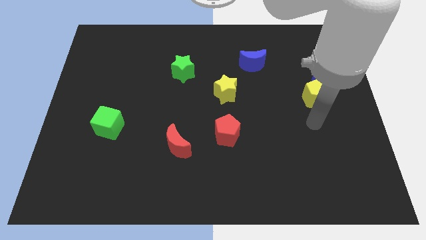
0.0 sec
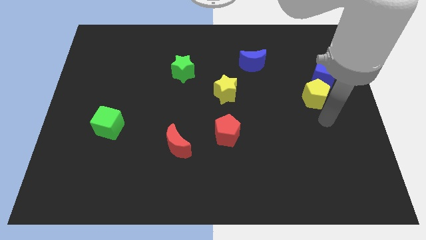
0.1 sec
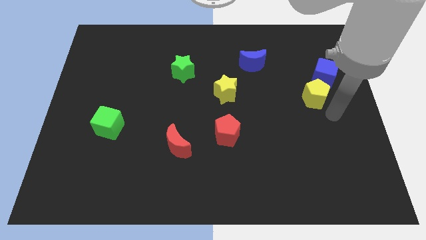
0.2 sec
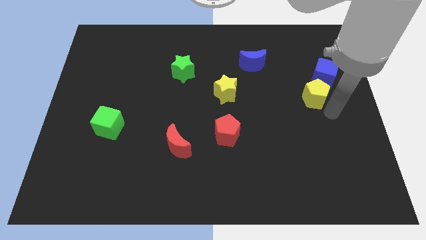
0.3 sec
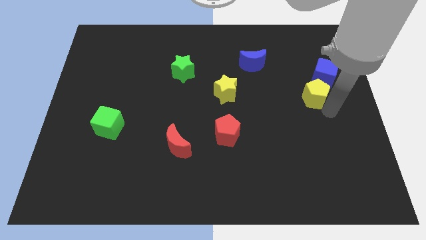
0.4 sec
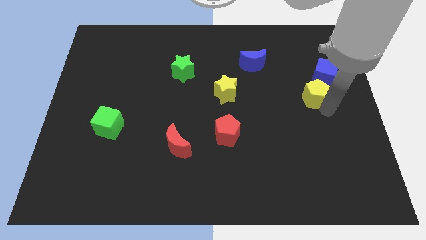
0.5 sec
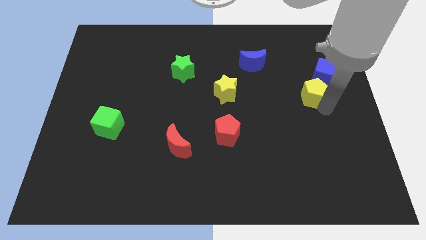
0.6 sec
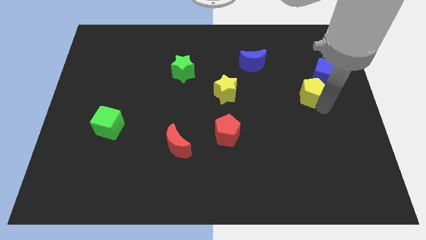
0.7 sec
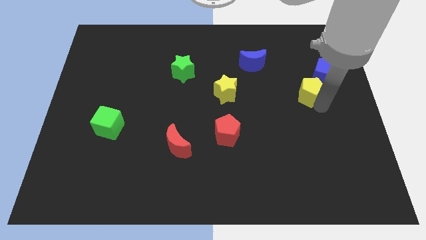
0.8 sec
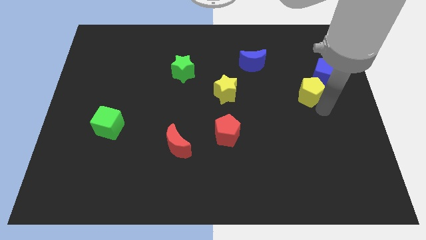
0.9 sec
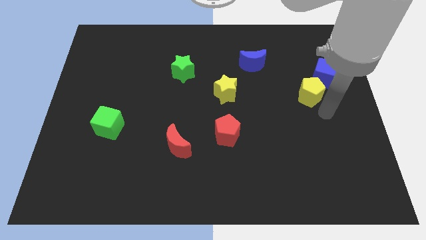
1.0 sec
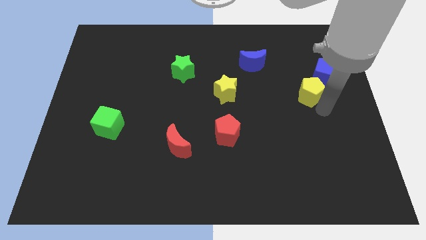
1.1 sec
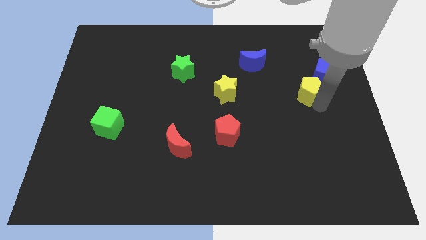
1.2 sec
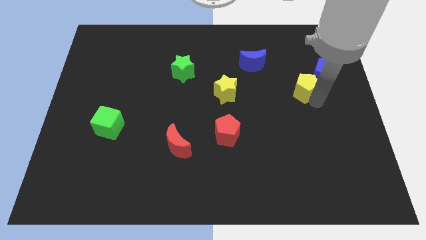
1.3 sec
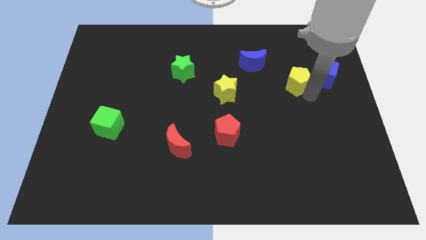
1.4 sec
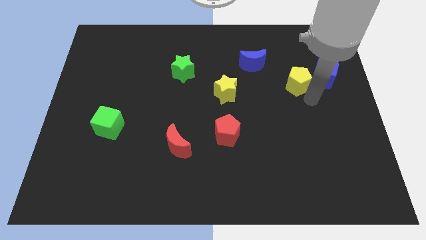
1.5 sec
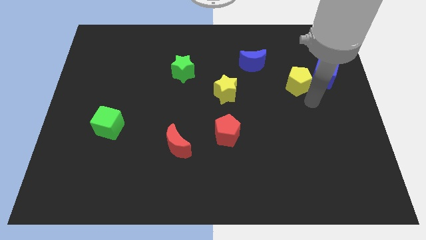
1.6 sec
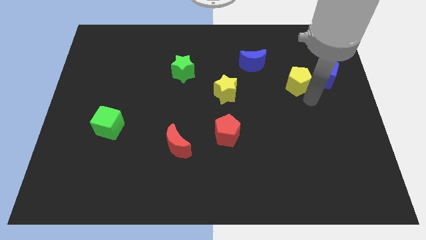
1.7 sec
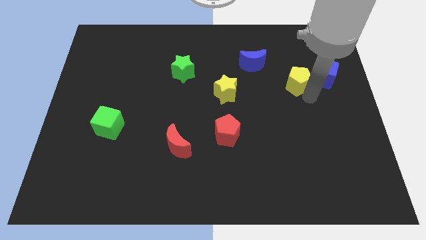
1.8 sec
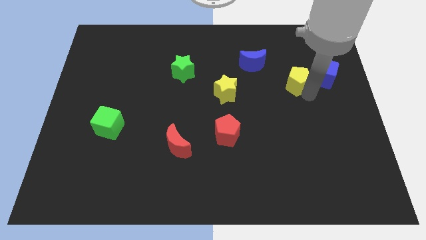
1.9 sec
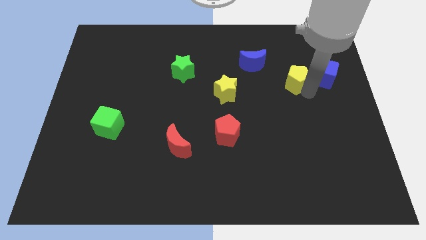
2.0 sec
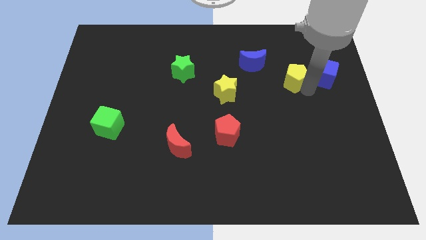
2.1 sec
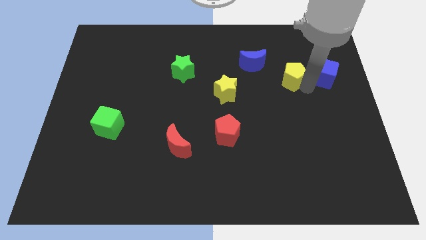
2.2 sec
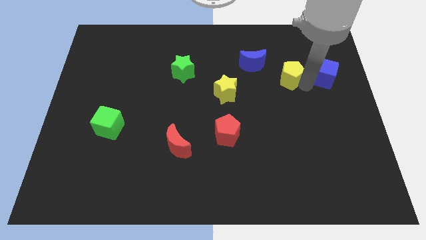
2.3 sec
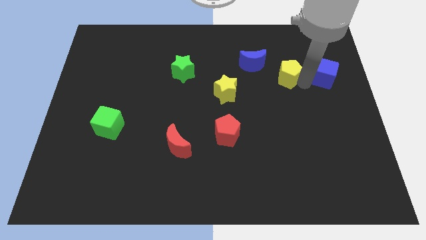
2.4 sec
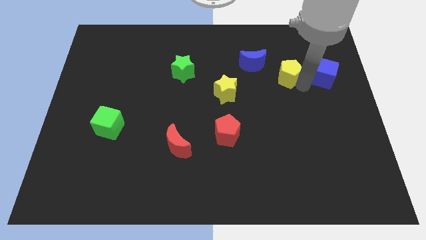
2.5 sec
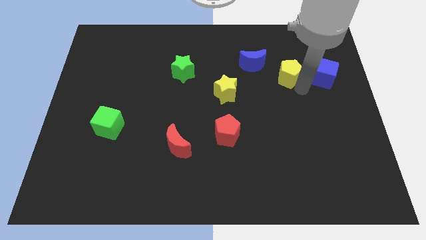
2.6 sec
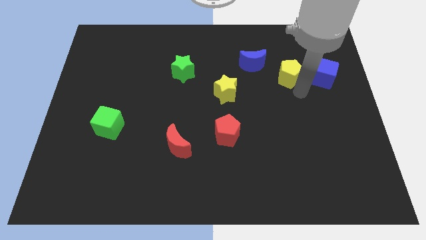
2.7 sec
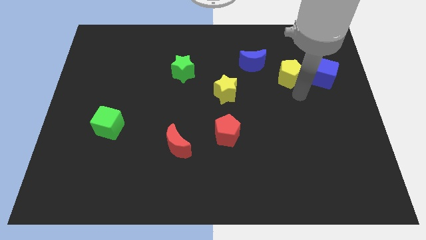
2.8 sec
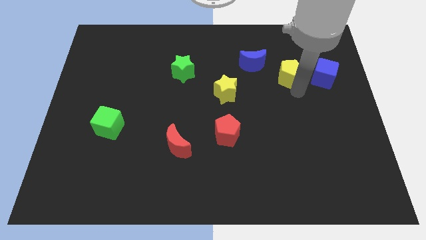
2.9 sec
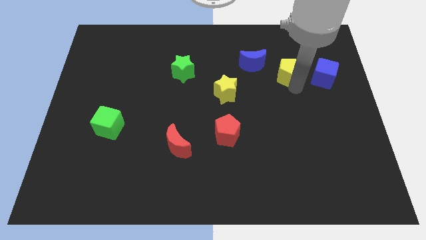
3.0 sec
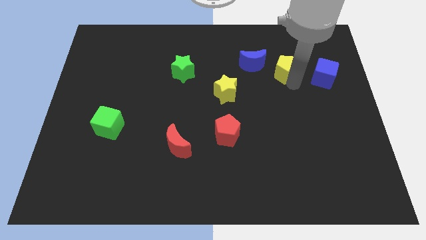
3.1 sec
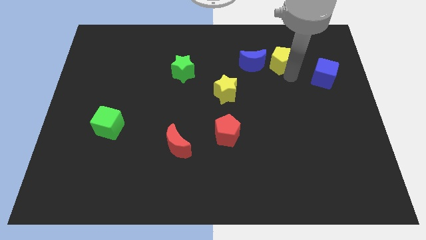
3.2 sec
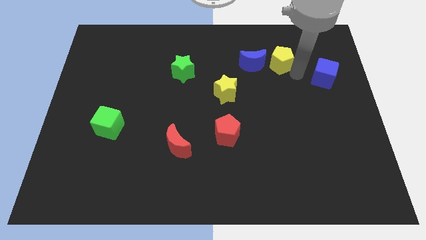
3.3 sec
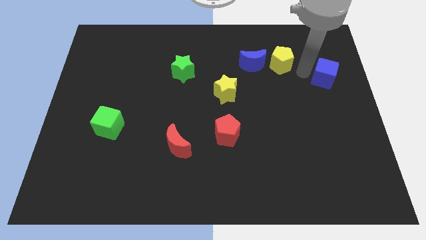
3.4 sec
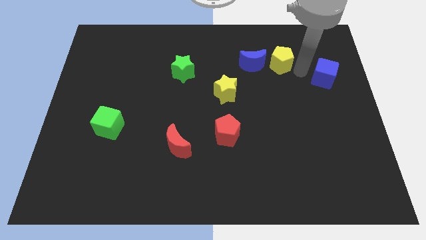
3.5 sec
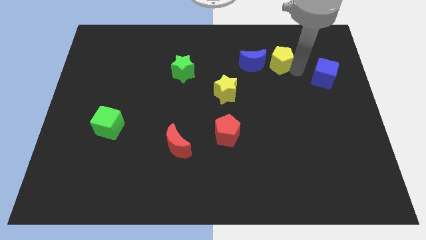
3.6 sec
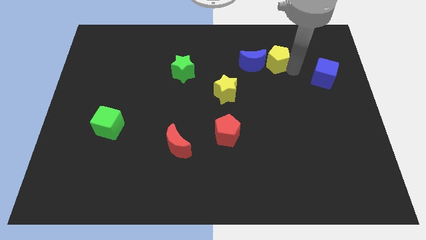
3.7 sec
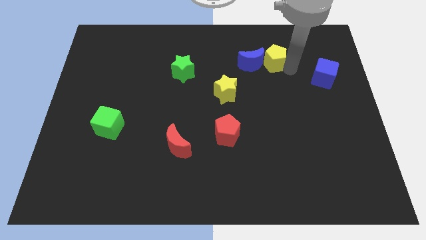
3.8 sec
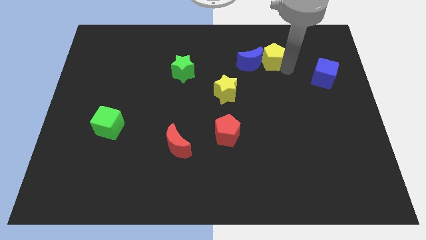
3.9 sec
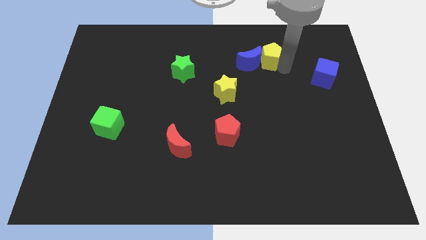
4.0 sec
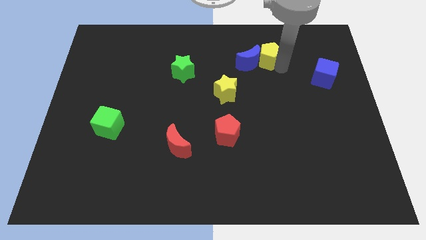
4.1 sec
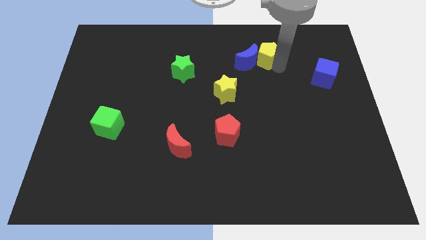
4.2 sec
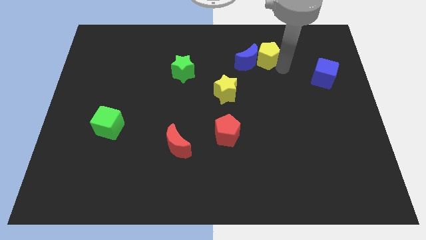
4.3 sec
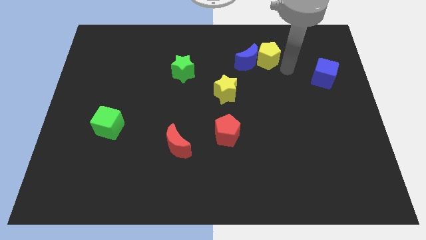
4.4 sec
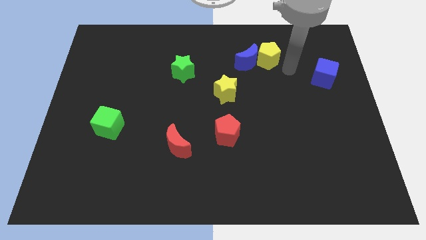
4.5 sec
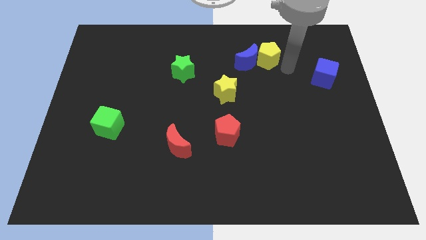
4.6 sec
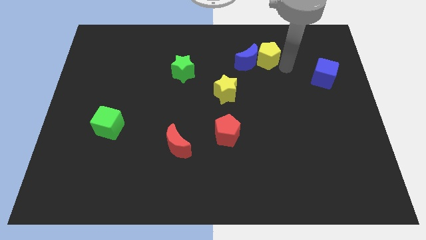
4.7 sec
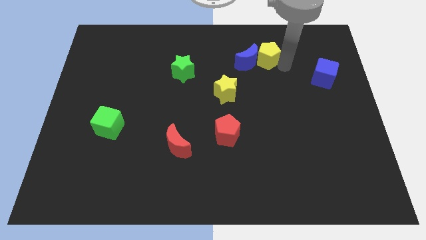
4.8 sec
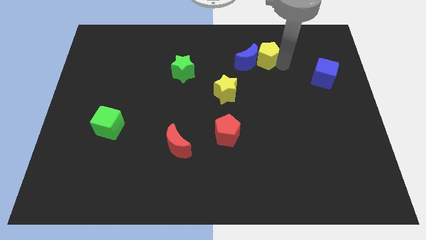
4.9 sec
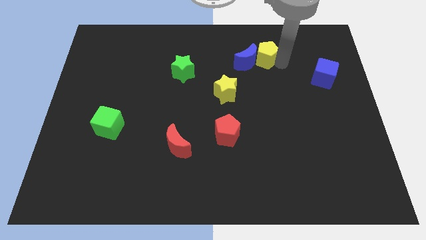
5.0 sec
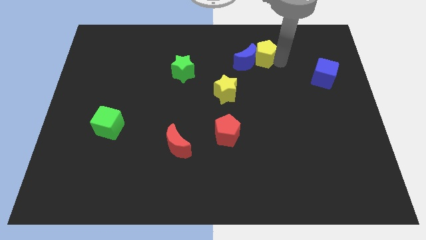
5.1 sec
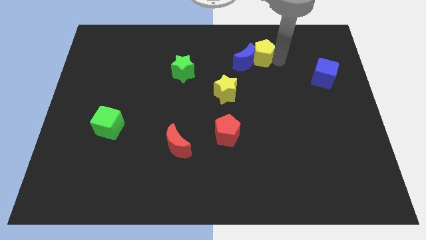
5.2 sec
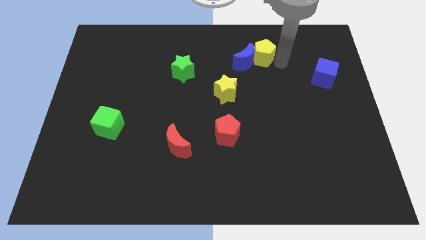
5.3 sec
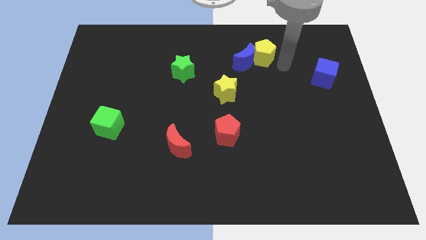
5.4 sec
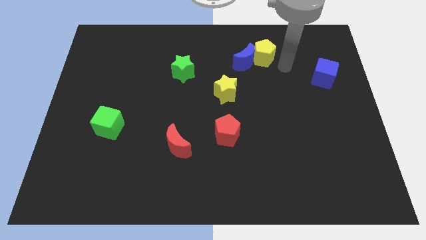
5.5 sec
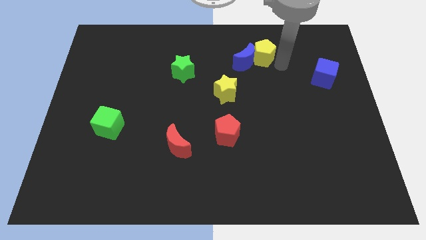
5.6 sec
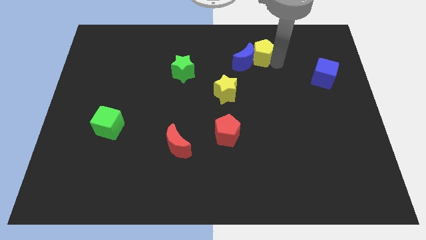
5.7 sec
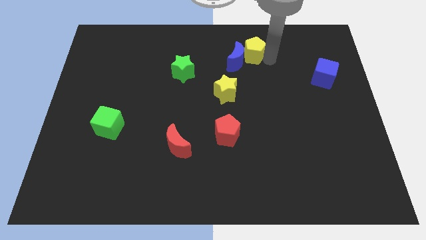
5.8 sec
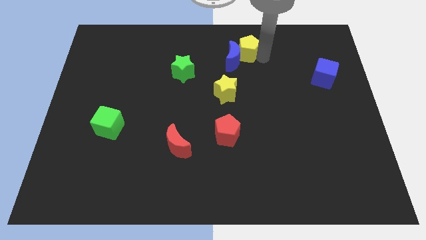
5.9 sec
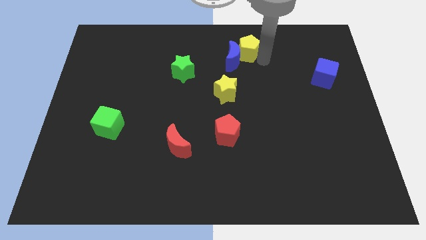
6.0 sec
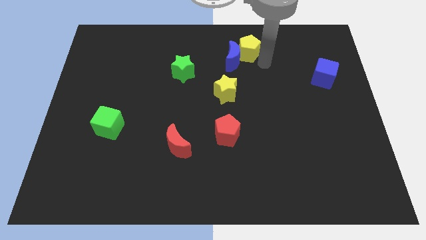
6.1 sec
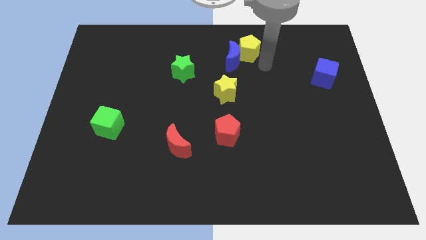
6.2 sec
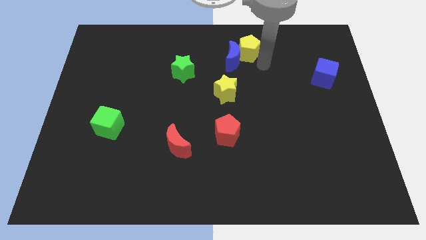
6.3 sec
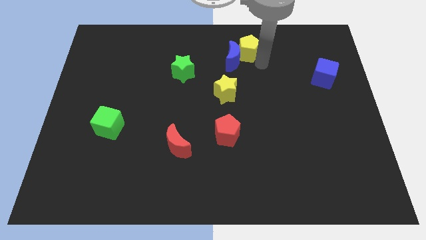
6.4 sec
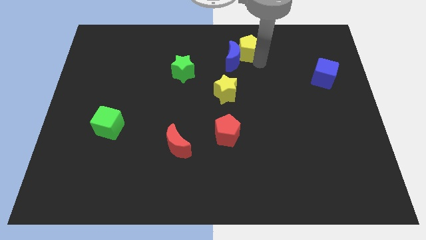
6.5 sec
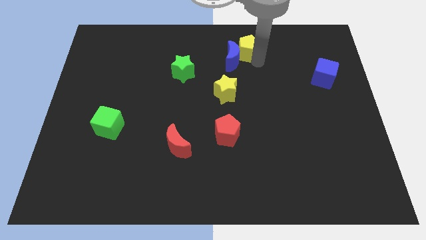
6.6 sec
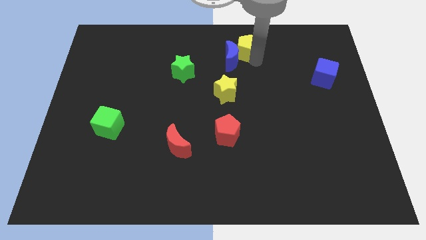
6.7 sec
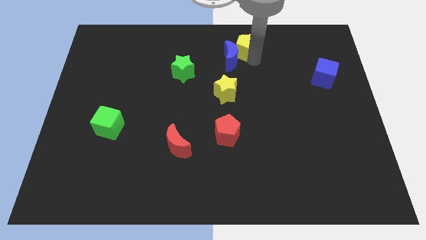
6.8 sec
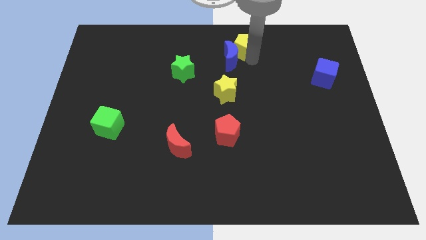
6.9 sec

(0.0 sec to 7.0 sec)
slide the yellow pentagon to the top side

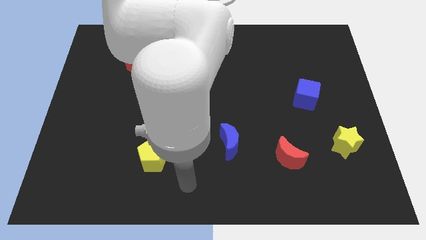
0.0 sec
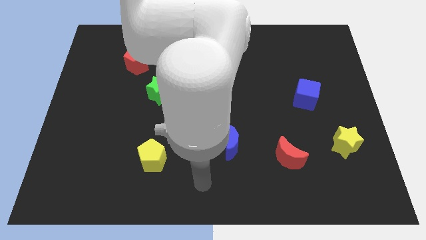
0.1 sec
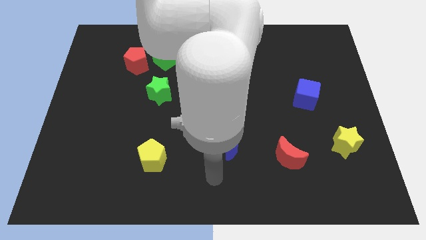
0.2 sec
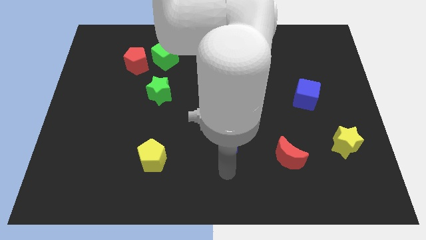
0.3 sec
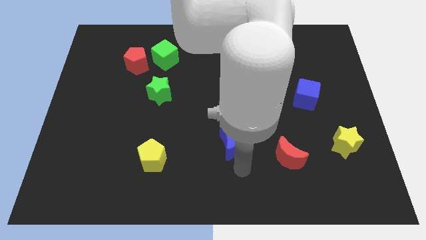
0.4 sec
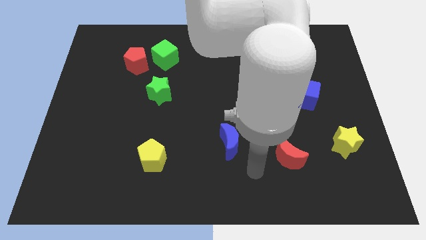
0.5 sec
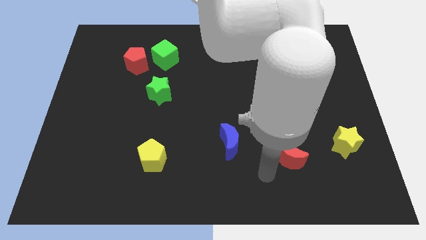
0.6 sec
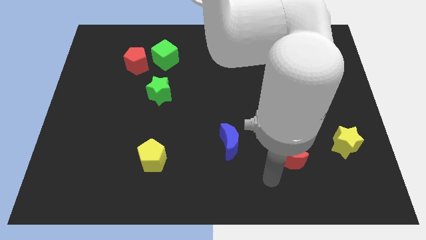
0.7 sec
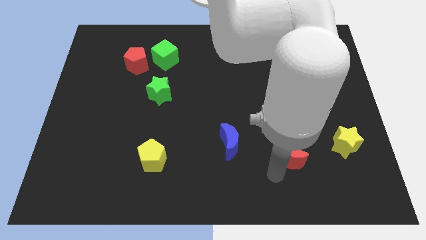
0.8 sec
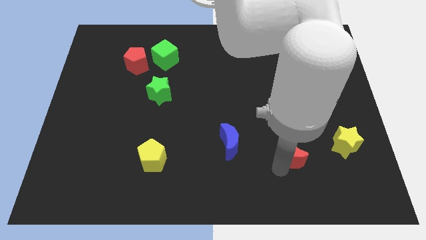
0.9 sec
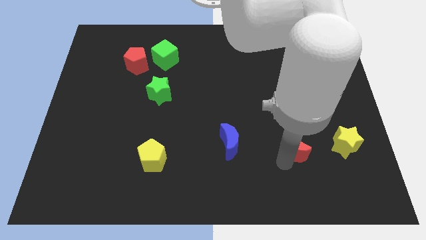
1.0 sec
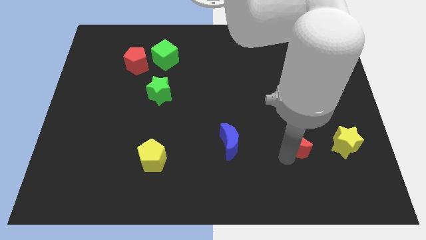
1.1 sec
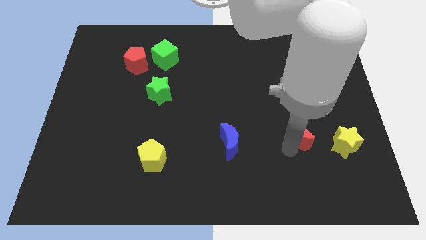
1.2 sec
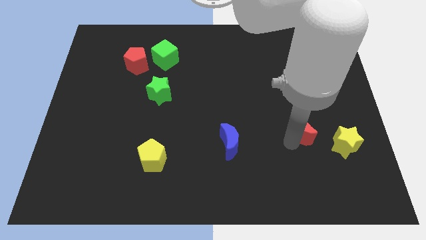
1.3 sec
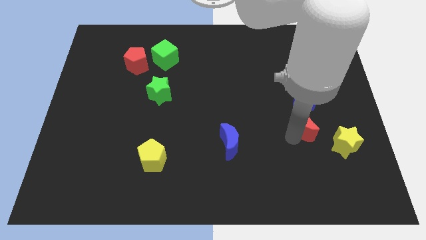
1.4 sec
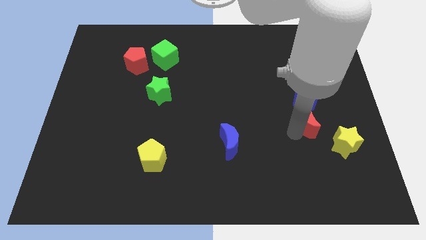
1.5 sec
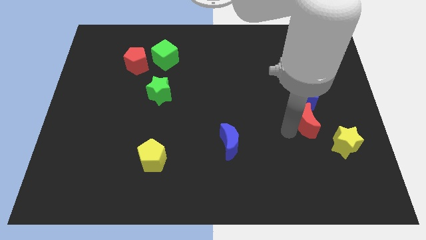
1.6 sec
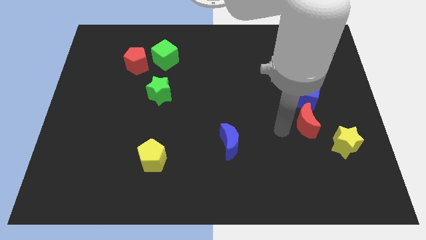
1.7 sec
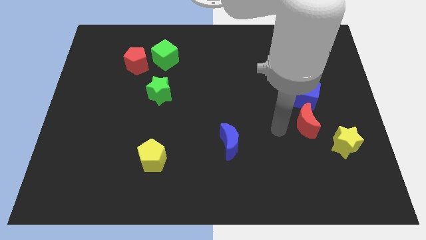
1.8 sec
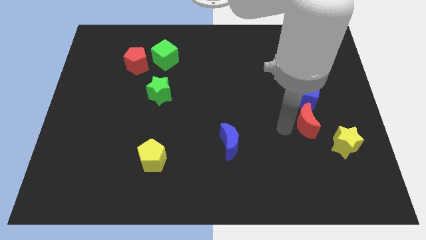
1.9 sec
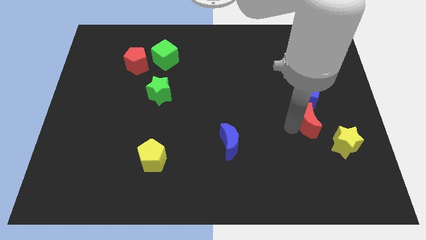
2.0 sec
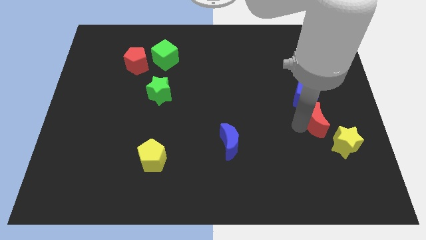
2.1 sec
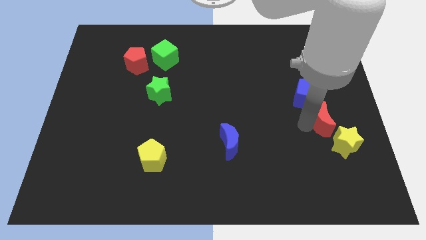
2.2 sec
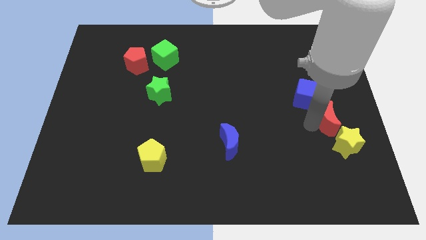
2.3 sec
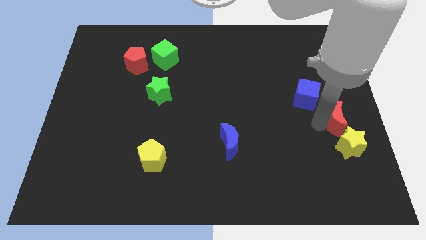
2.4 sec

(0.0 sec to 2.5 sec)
push the red moon to the center right
